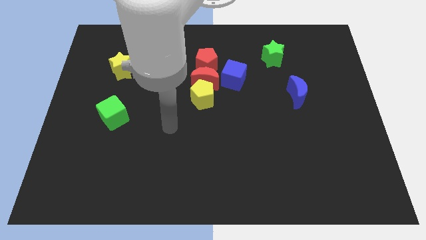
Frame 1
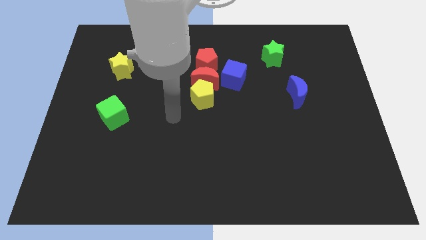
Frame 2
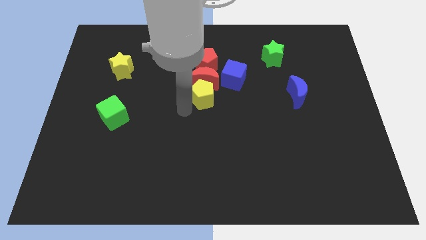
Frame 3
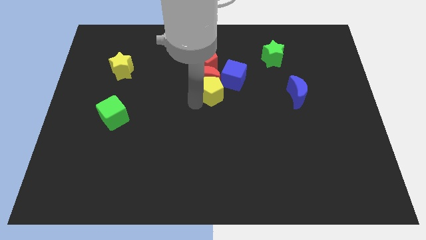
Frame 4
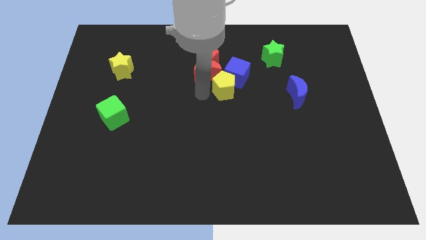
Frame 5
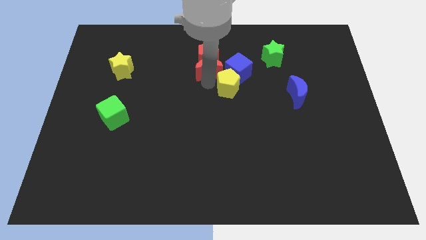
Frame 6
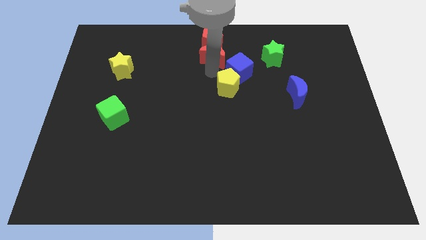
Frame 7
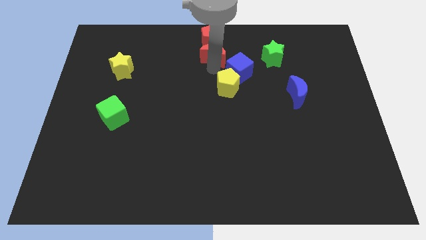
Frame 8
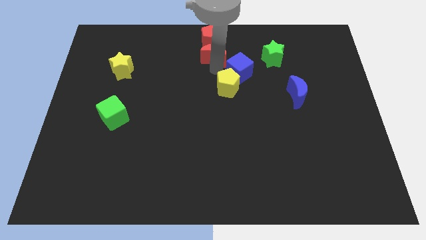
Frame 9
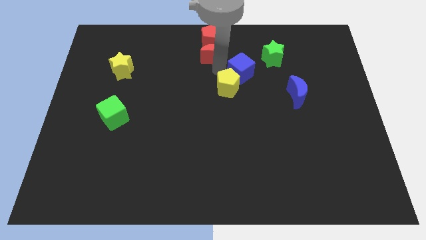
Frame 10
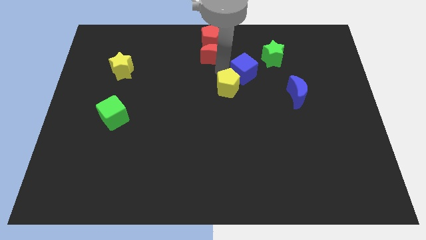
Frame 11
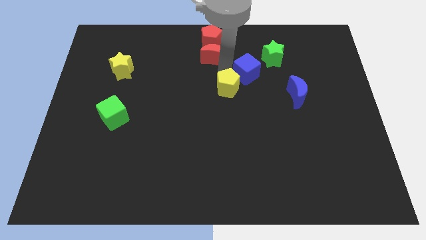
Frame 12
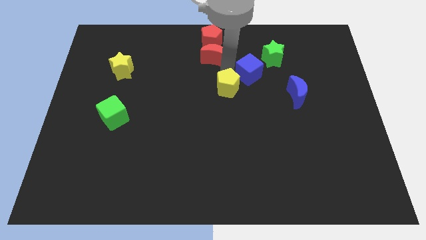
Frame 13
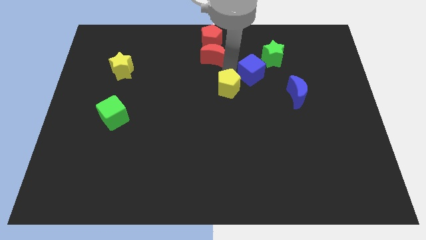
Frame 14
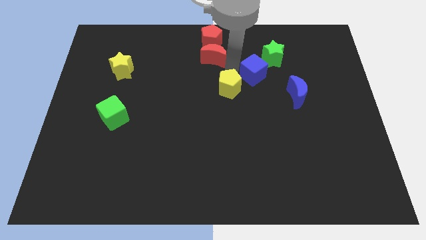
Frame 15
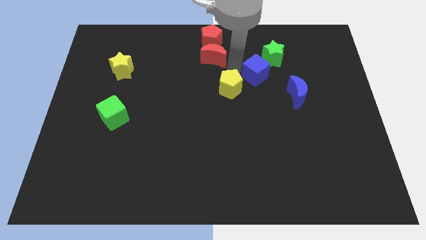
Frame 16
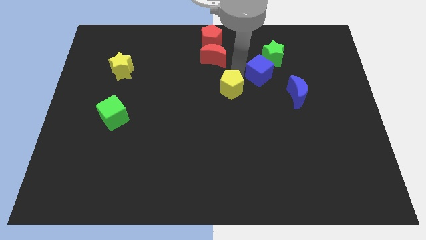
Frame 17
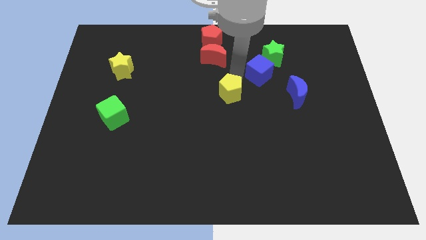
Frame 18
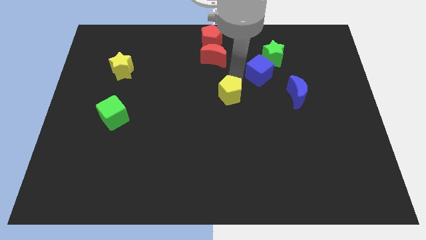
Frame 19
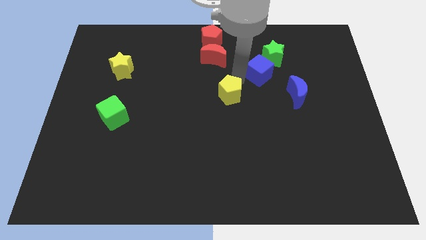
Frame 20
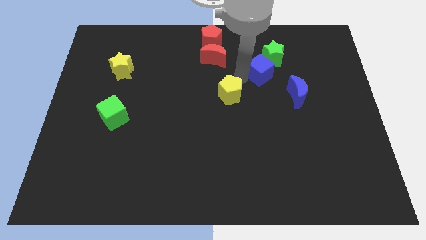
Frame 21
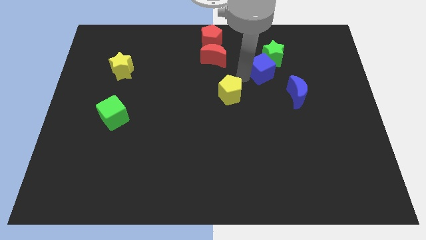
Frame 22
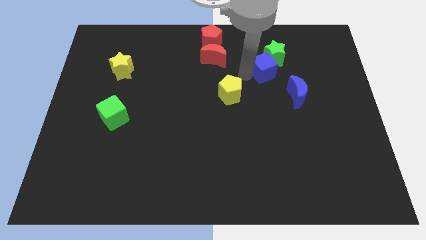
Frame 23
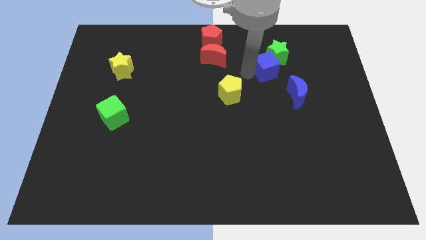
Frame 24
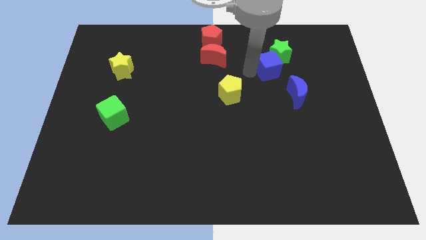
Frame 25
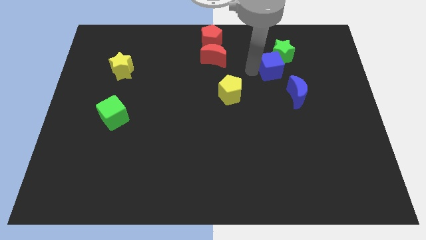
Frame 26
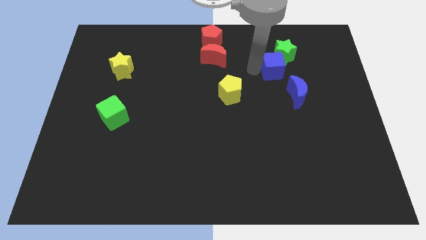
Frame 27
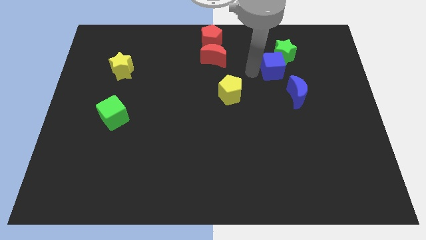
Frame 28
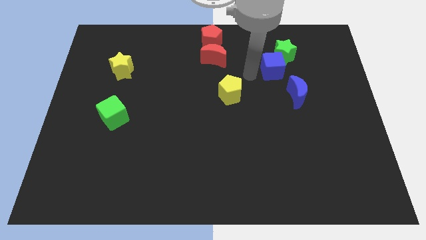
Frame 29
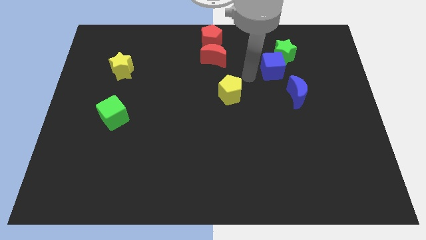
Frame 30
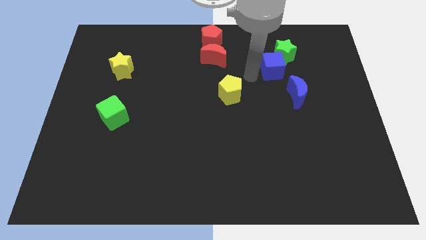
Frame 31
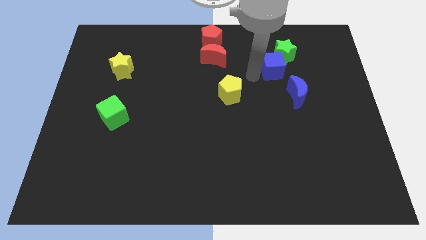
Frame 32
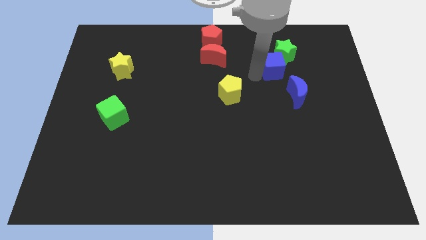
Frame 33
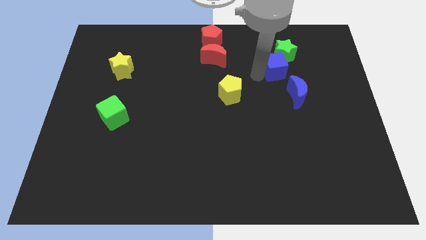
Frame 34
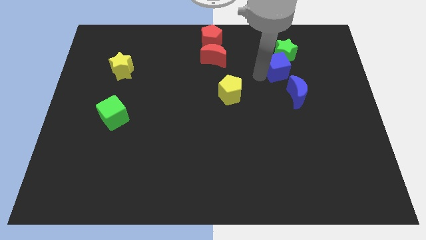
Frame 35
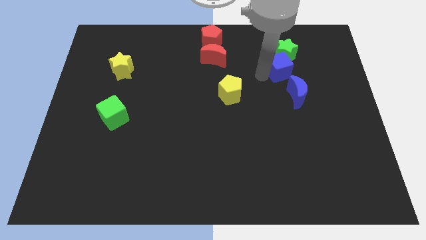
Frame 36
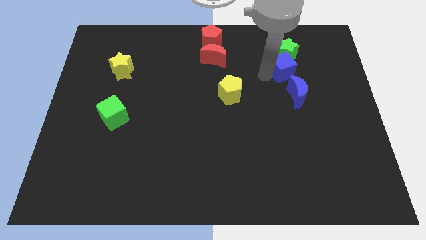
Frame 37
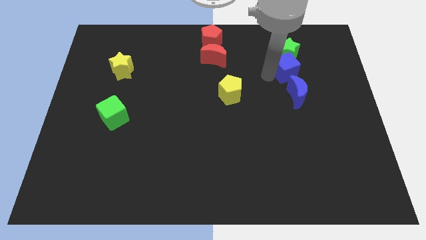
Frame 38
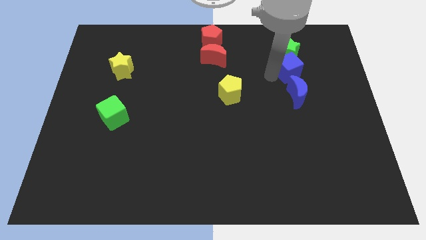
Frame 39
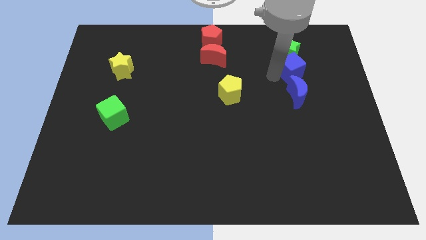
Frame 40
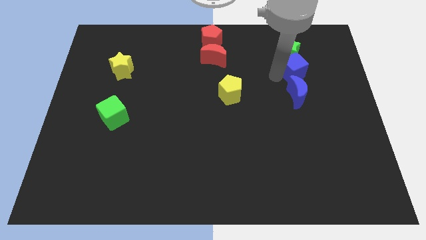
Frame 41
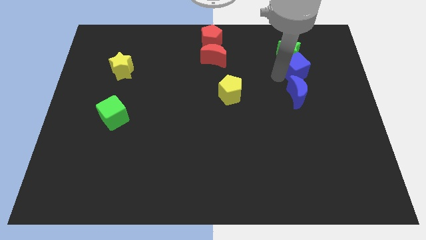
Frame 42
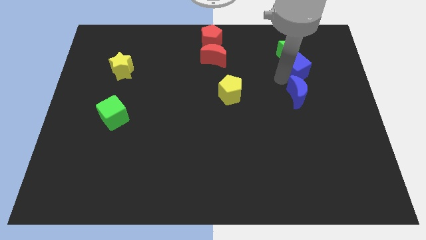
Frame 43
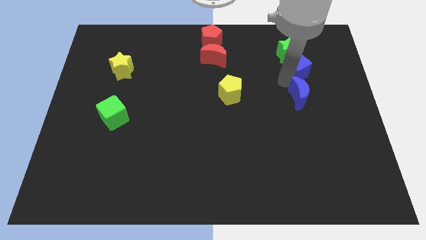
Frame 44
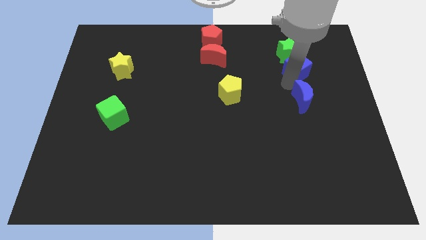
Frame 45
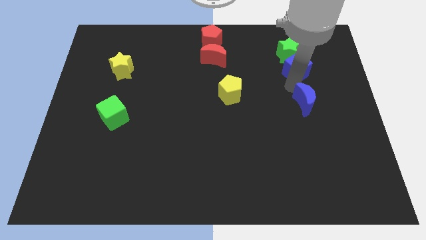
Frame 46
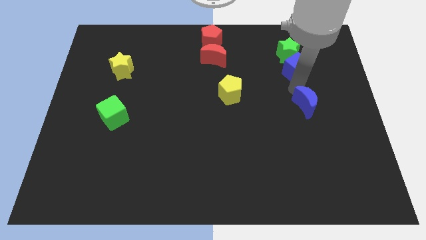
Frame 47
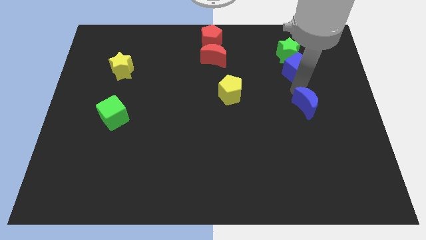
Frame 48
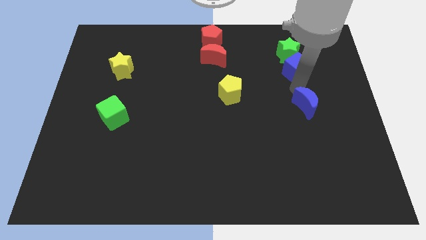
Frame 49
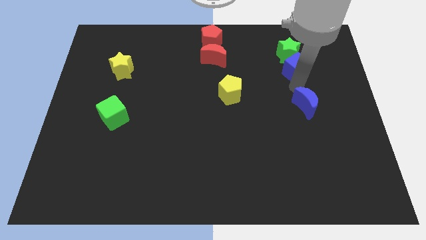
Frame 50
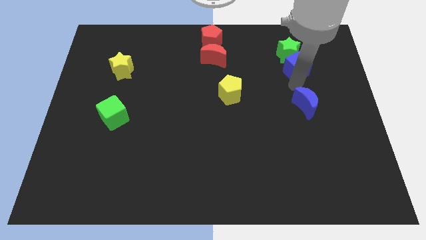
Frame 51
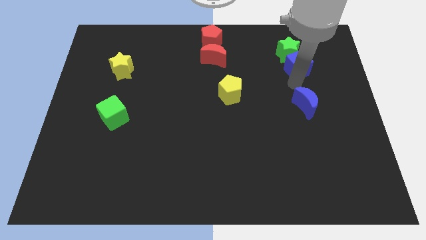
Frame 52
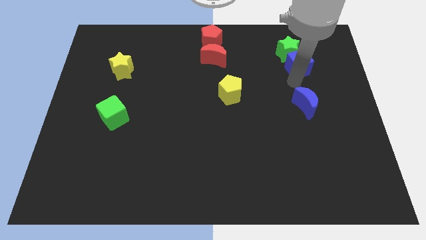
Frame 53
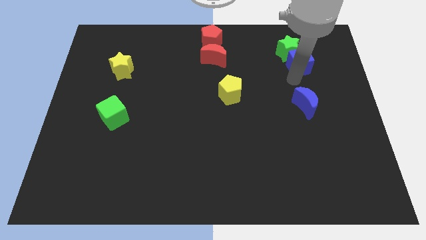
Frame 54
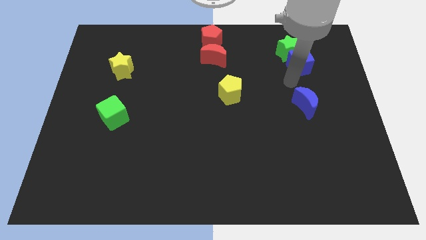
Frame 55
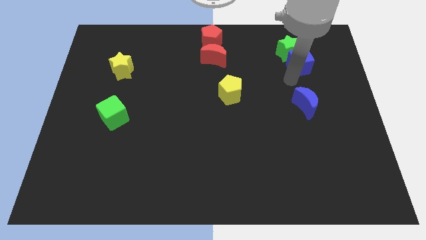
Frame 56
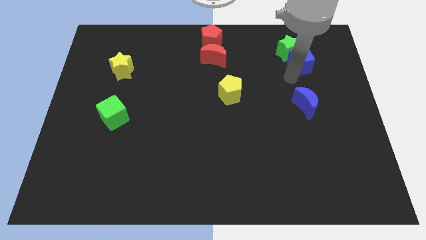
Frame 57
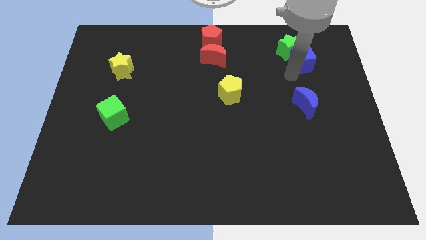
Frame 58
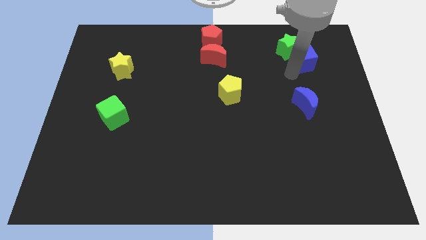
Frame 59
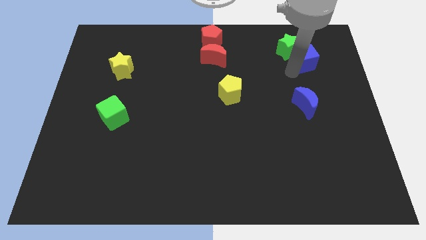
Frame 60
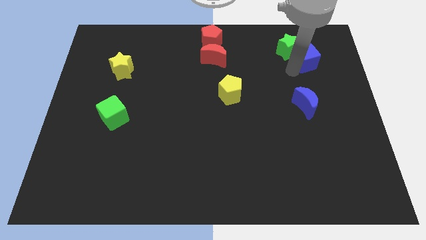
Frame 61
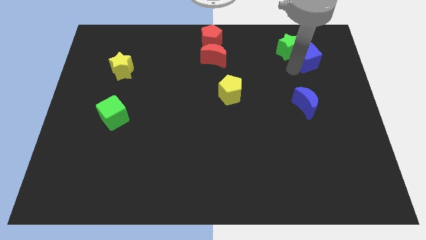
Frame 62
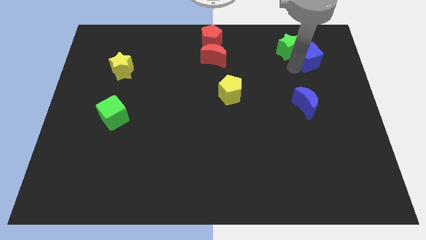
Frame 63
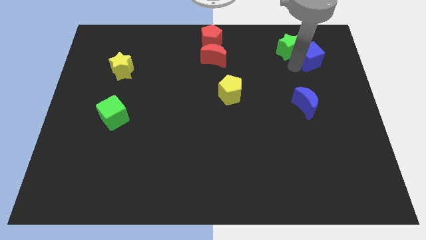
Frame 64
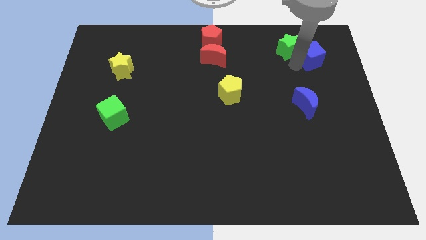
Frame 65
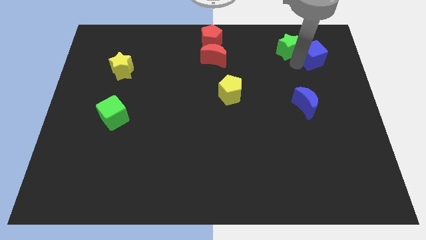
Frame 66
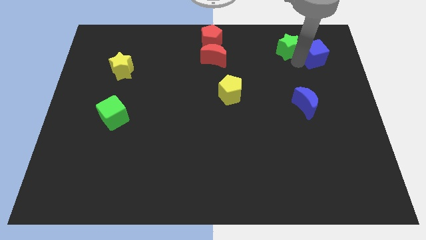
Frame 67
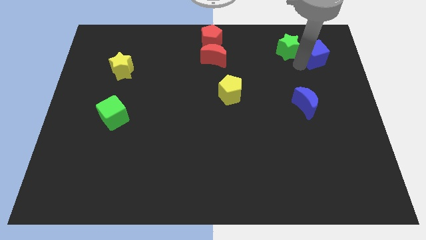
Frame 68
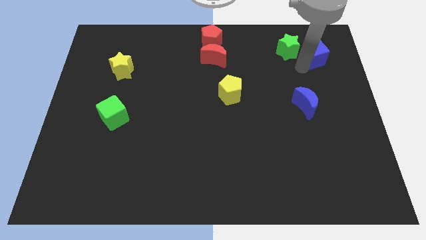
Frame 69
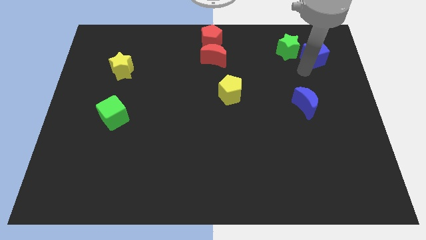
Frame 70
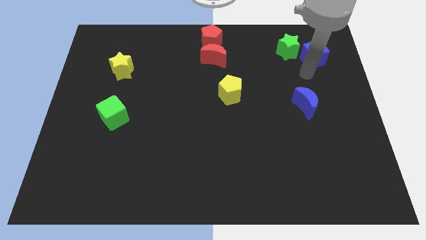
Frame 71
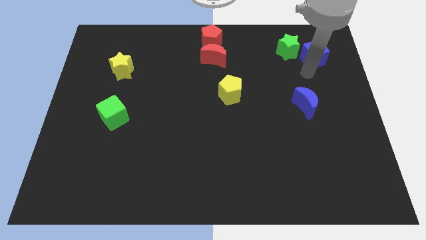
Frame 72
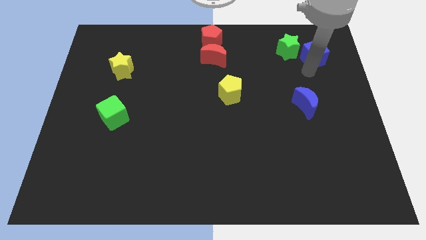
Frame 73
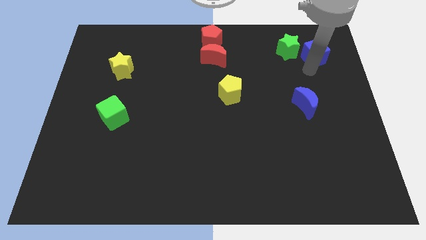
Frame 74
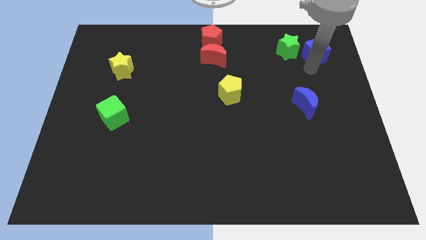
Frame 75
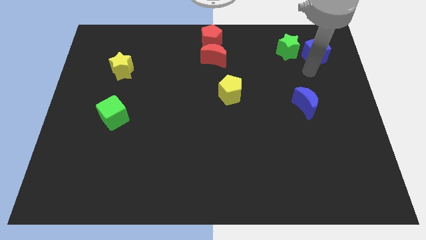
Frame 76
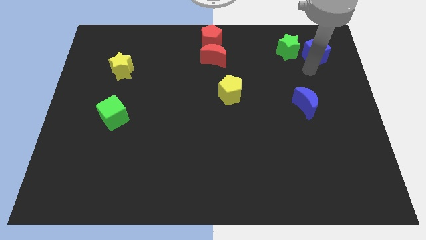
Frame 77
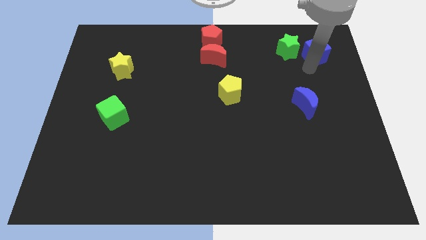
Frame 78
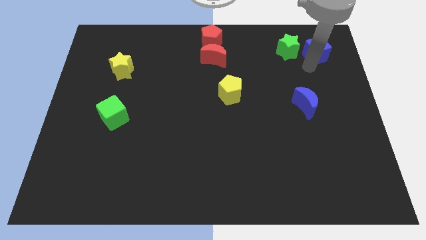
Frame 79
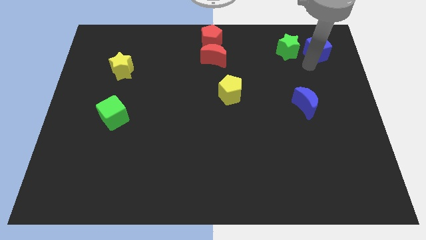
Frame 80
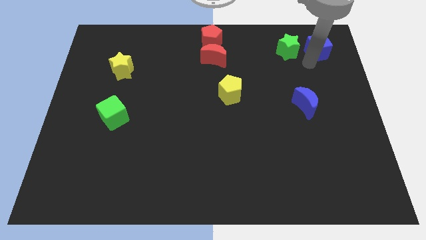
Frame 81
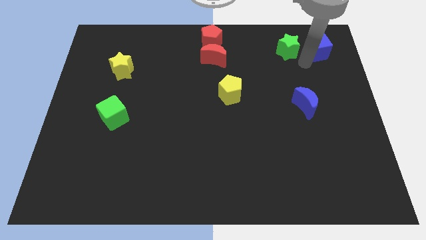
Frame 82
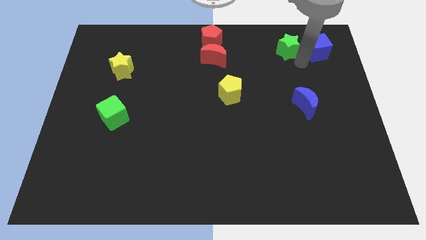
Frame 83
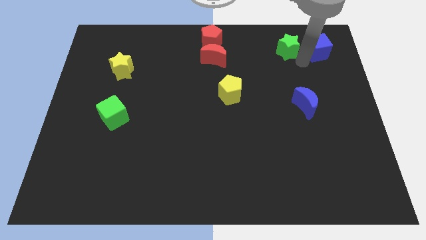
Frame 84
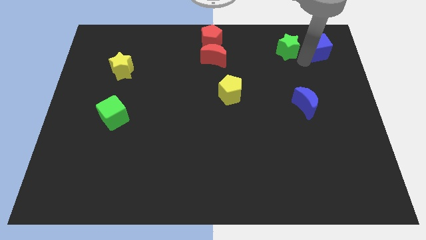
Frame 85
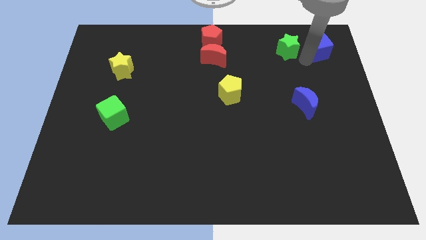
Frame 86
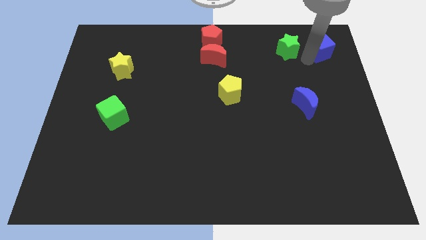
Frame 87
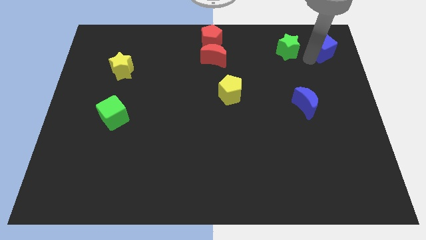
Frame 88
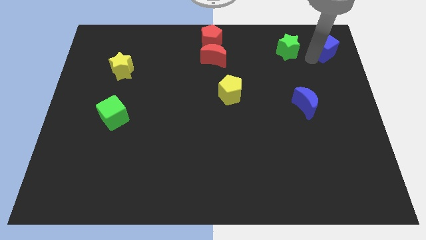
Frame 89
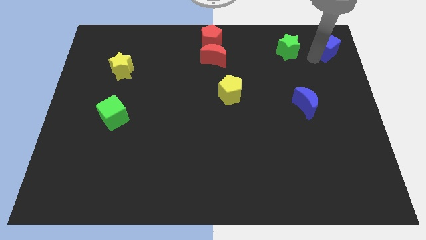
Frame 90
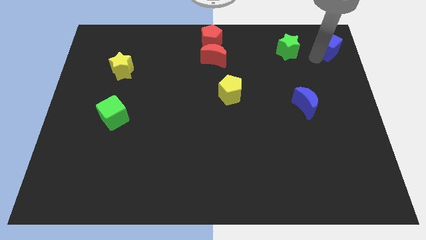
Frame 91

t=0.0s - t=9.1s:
move the blue cube to the top right
